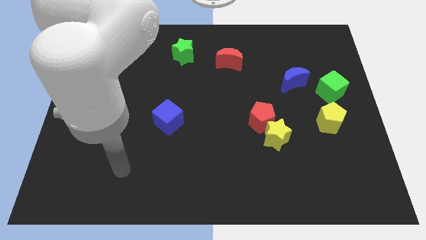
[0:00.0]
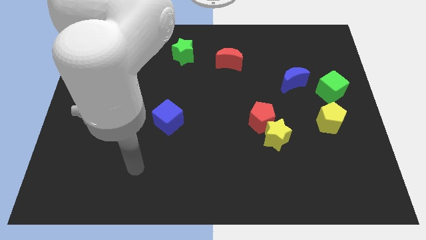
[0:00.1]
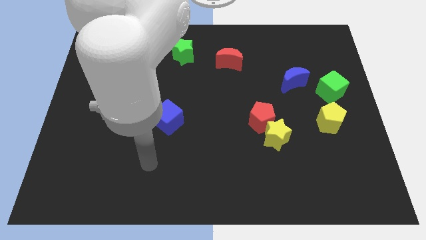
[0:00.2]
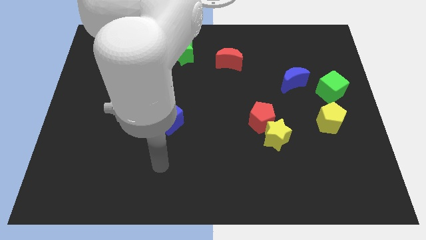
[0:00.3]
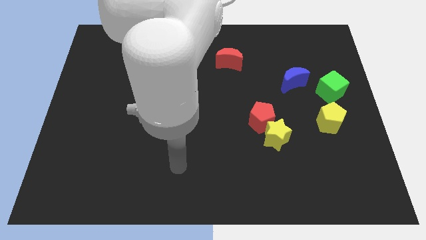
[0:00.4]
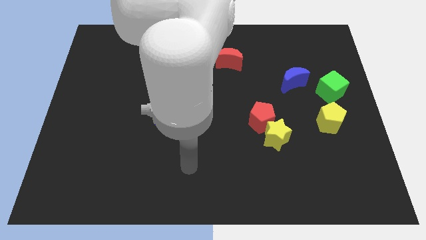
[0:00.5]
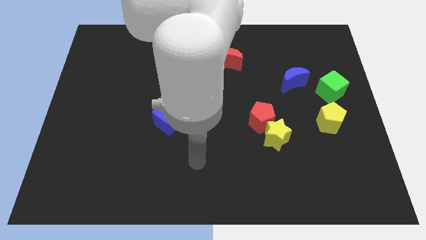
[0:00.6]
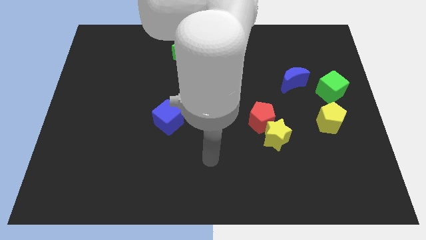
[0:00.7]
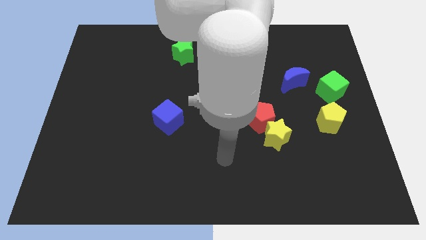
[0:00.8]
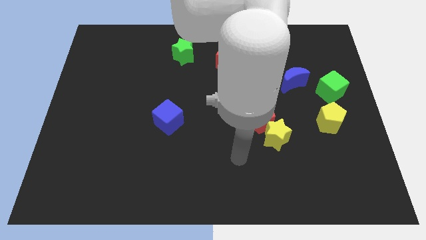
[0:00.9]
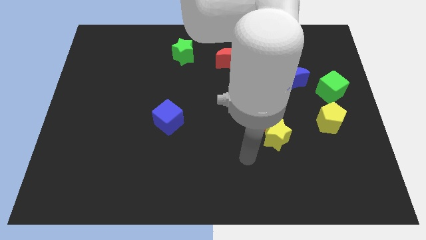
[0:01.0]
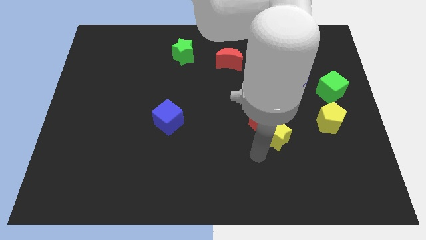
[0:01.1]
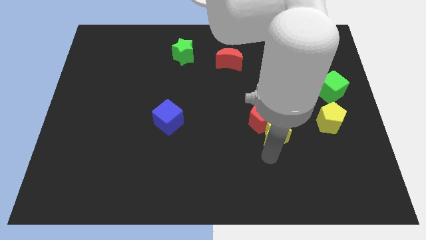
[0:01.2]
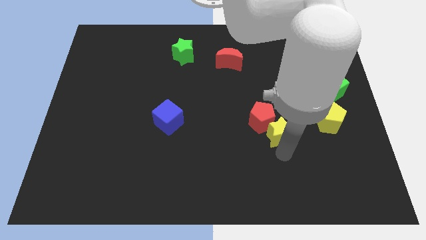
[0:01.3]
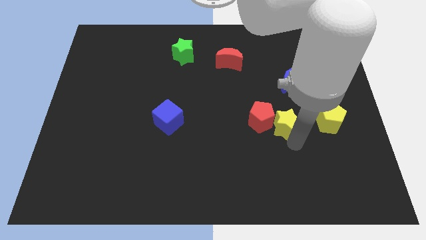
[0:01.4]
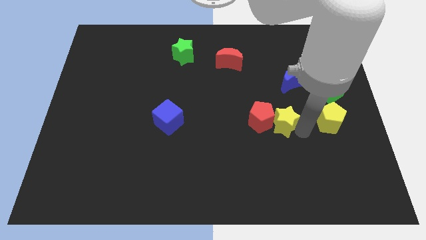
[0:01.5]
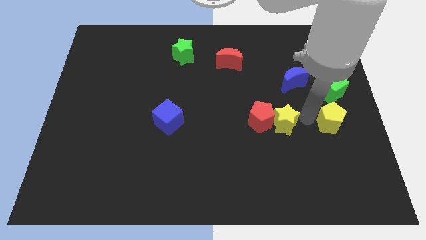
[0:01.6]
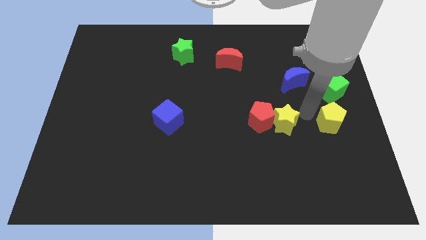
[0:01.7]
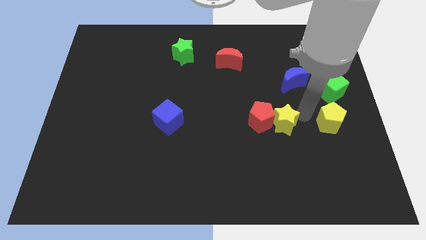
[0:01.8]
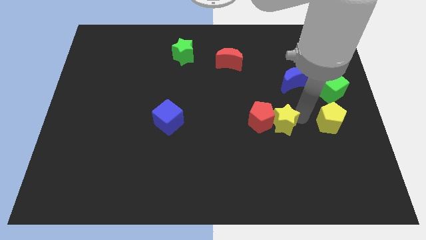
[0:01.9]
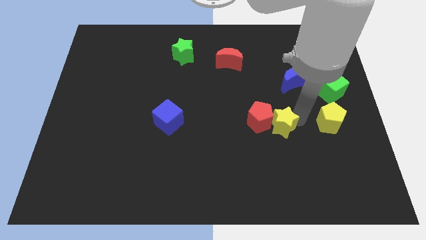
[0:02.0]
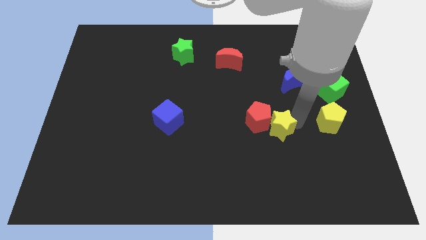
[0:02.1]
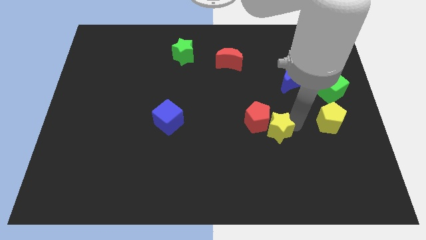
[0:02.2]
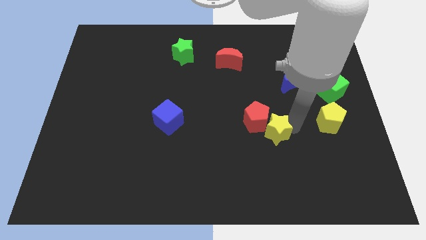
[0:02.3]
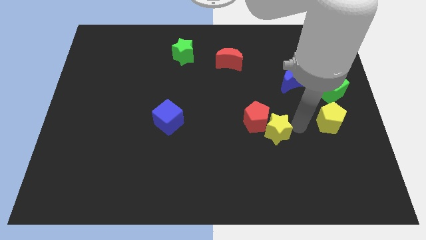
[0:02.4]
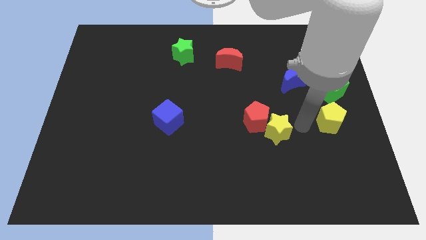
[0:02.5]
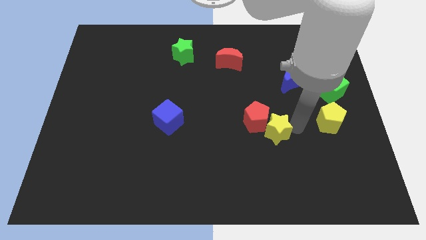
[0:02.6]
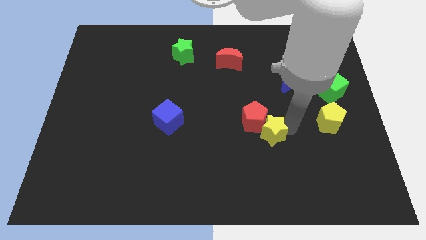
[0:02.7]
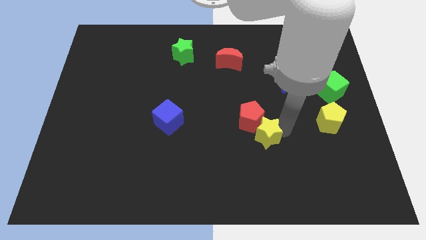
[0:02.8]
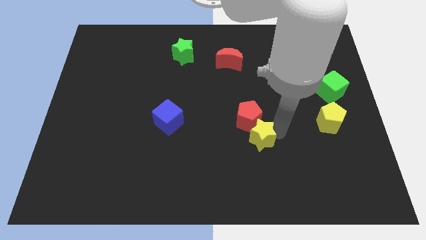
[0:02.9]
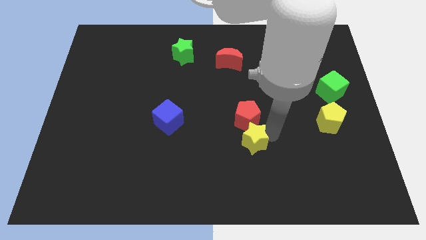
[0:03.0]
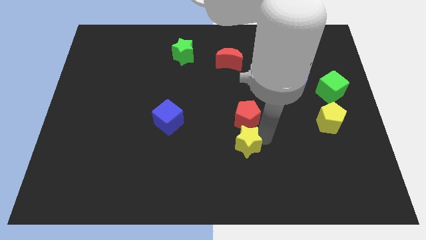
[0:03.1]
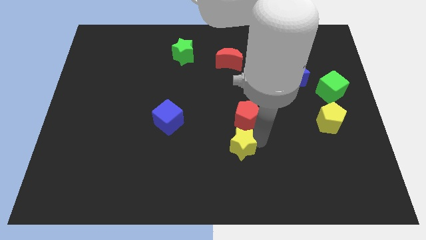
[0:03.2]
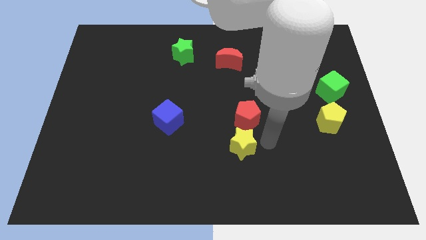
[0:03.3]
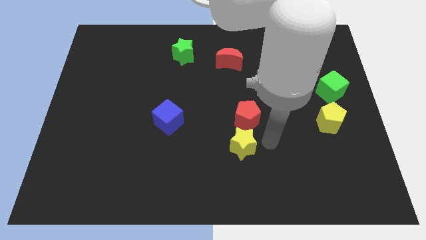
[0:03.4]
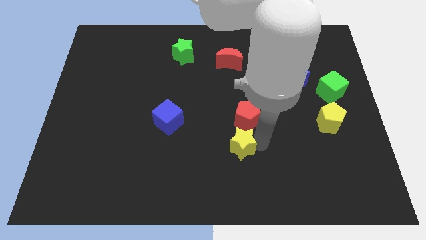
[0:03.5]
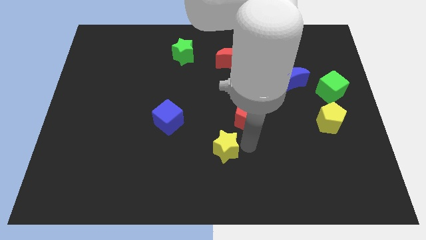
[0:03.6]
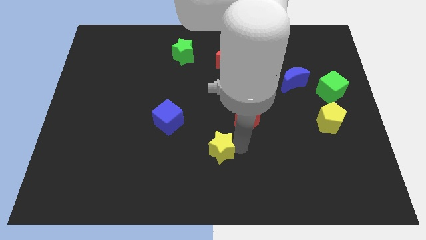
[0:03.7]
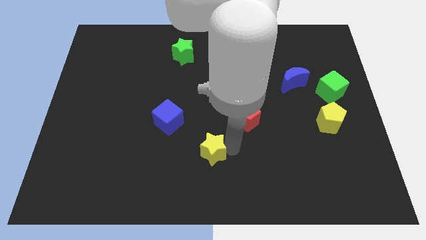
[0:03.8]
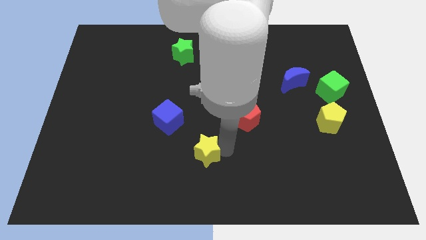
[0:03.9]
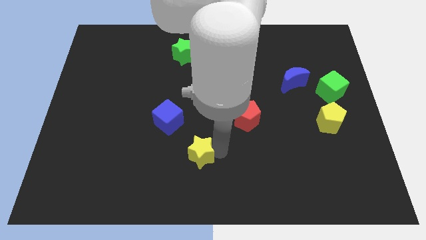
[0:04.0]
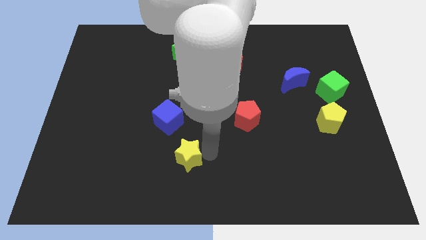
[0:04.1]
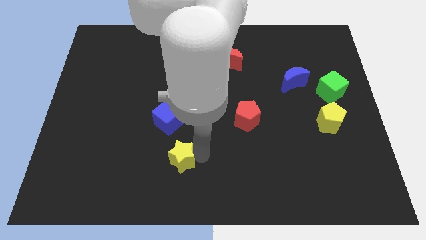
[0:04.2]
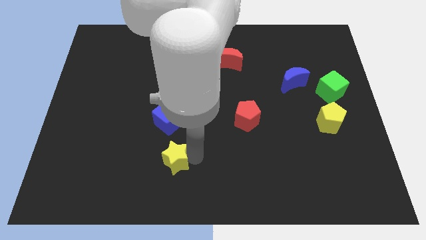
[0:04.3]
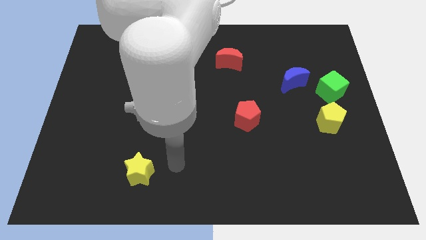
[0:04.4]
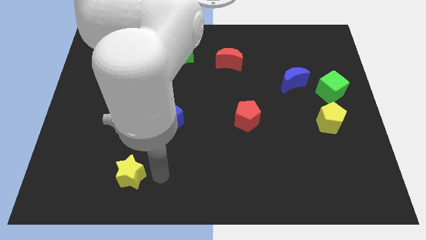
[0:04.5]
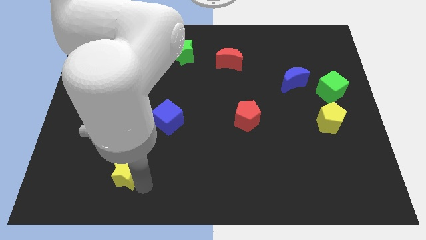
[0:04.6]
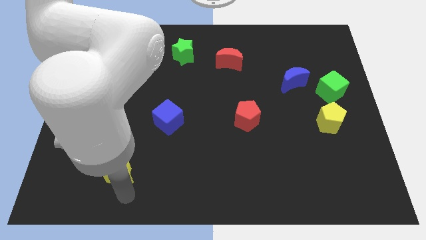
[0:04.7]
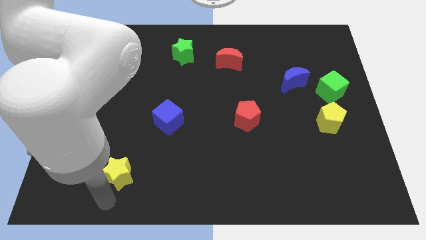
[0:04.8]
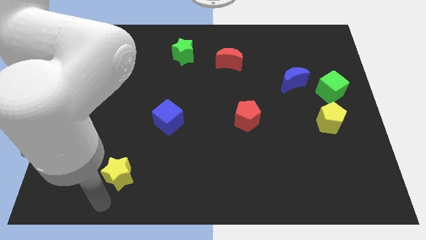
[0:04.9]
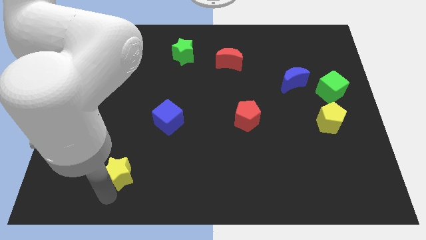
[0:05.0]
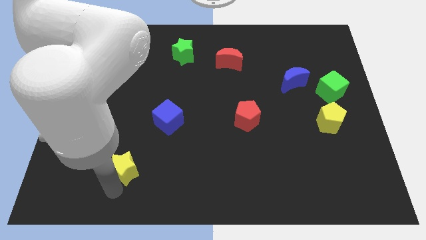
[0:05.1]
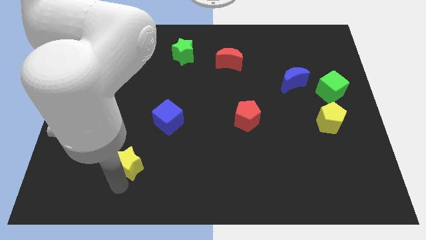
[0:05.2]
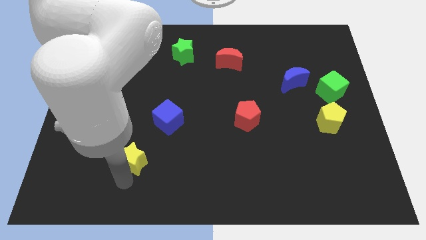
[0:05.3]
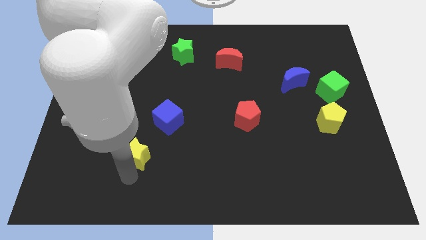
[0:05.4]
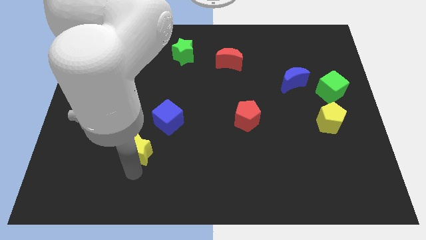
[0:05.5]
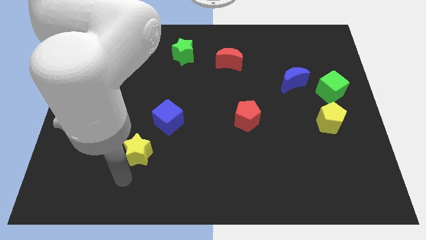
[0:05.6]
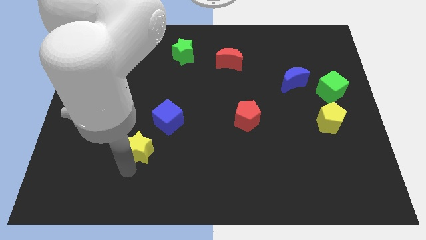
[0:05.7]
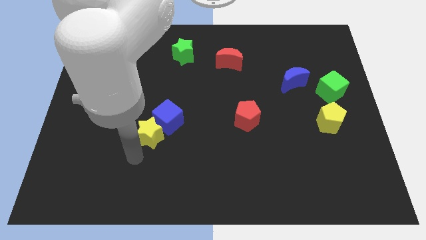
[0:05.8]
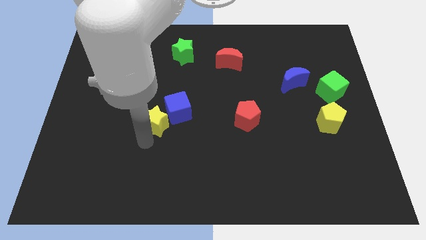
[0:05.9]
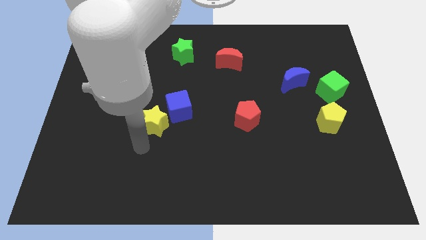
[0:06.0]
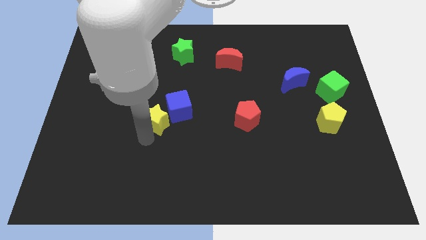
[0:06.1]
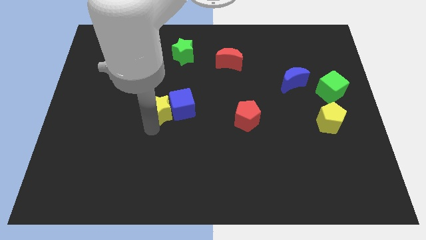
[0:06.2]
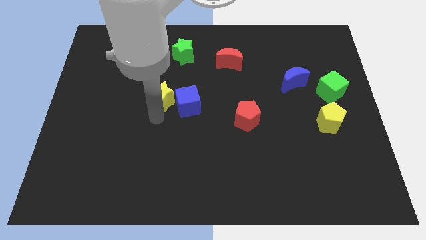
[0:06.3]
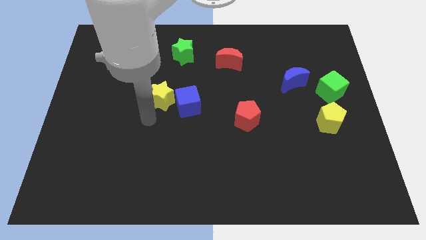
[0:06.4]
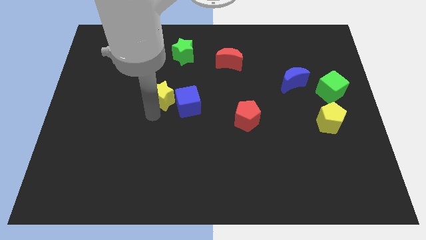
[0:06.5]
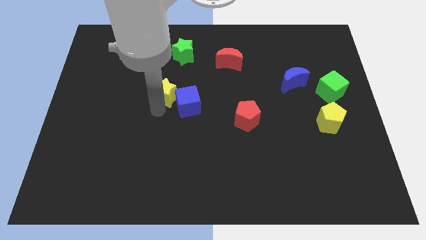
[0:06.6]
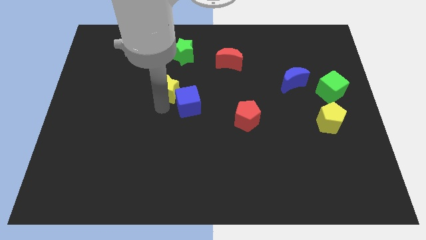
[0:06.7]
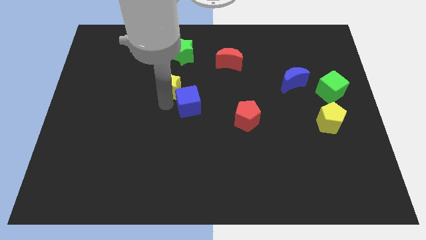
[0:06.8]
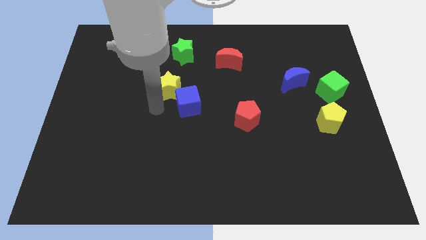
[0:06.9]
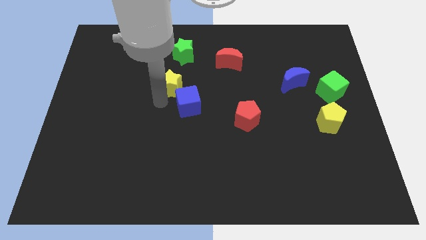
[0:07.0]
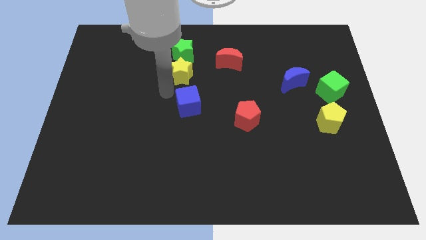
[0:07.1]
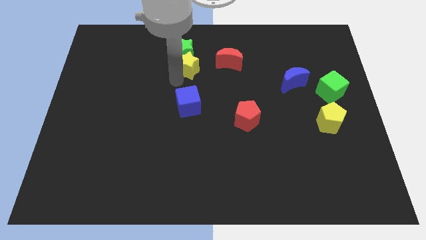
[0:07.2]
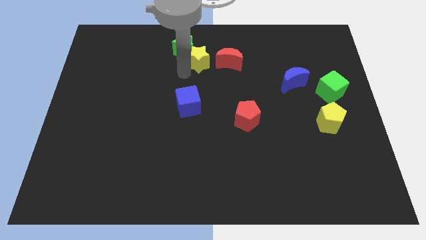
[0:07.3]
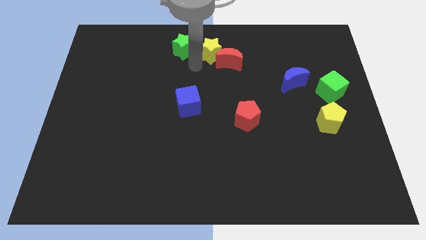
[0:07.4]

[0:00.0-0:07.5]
move the yellow star to the towards your base

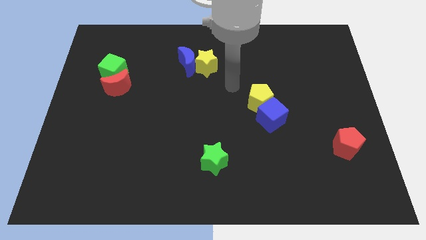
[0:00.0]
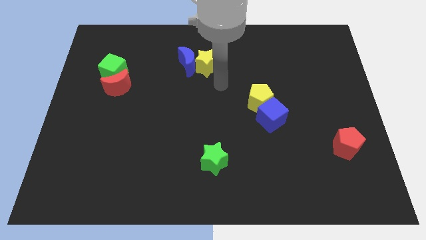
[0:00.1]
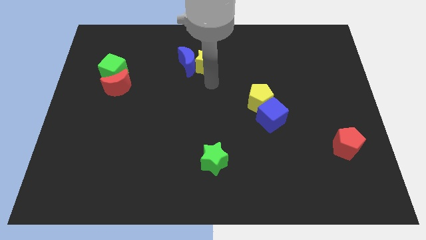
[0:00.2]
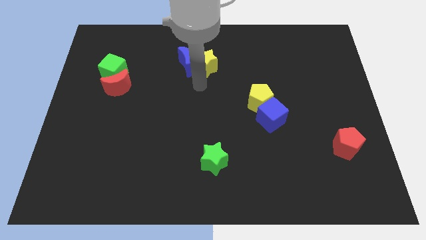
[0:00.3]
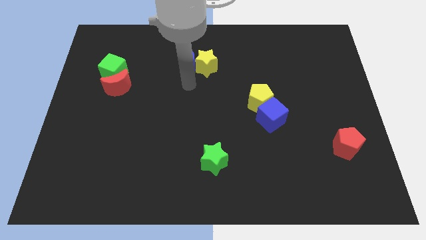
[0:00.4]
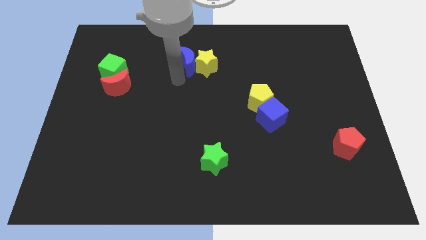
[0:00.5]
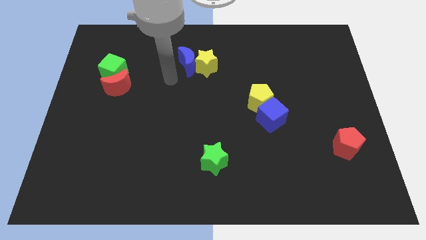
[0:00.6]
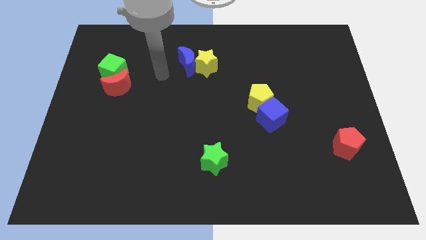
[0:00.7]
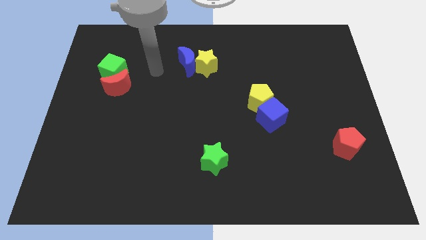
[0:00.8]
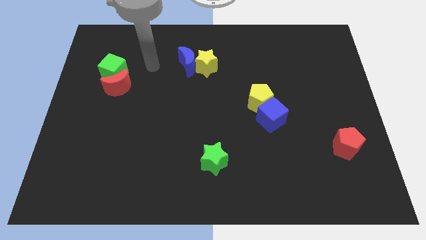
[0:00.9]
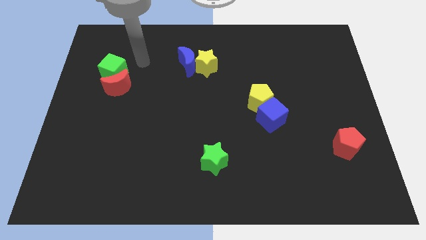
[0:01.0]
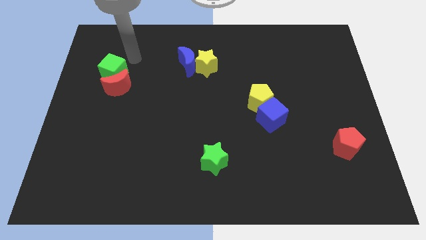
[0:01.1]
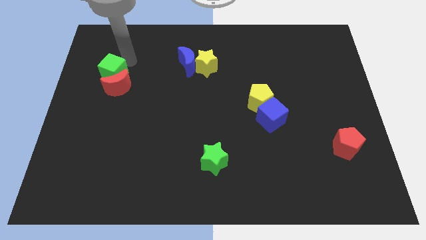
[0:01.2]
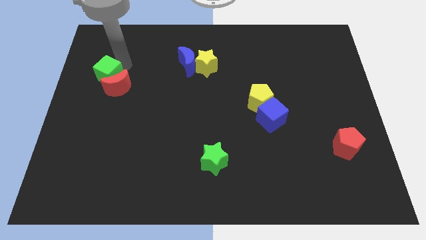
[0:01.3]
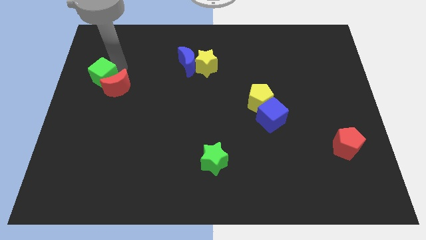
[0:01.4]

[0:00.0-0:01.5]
put the green cube to the left side of the board
